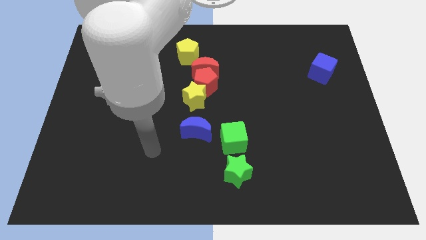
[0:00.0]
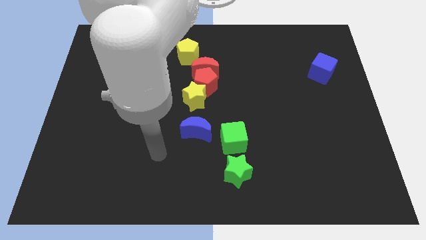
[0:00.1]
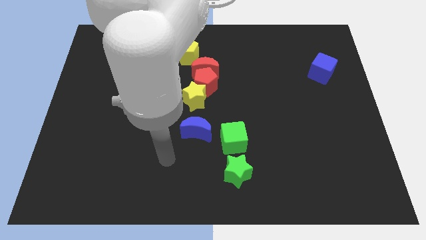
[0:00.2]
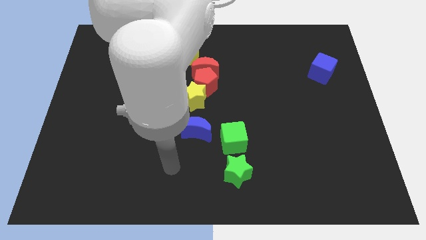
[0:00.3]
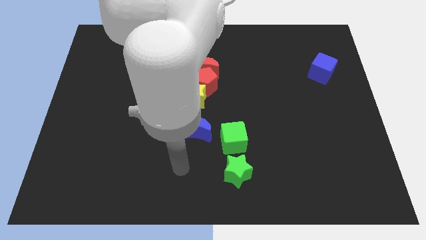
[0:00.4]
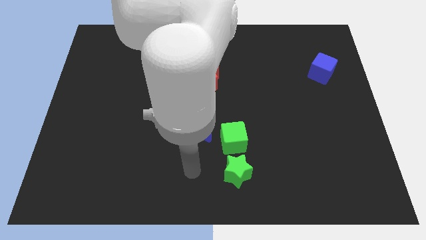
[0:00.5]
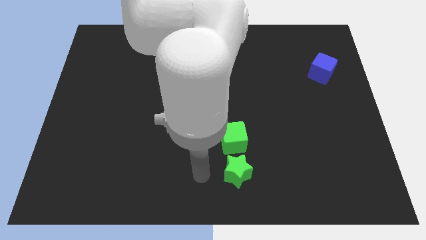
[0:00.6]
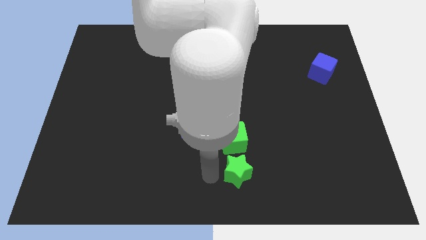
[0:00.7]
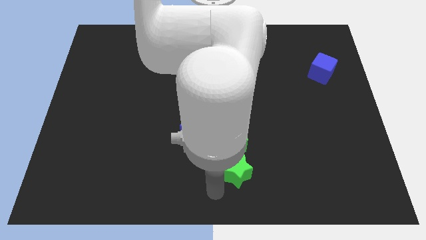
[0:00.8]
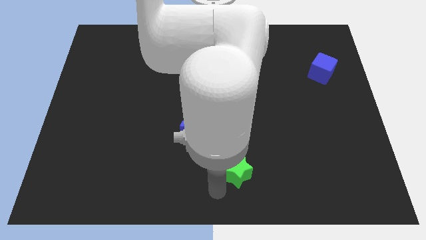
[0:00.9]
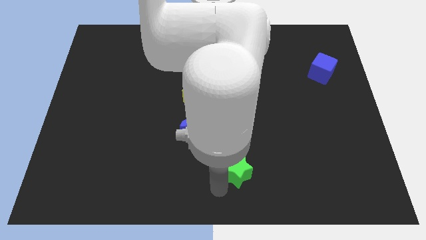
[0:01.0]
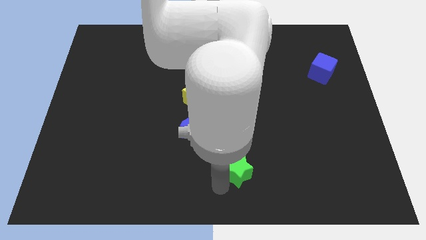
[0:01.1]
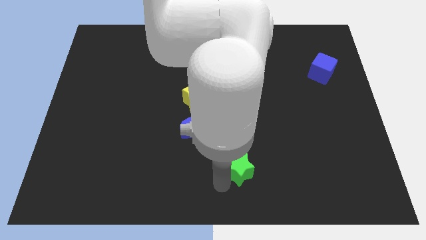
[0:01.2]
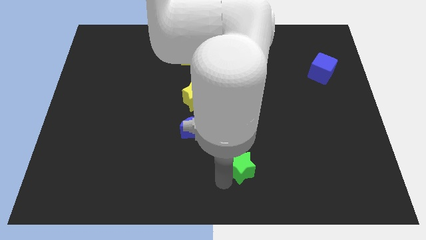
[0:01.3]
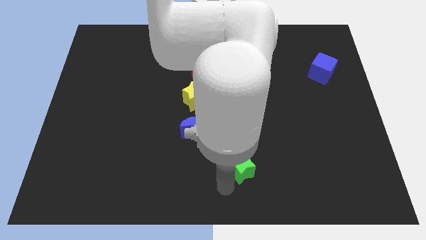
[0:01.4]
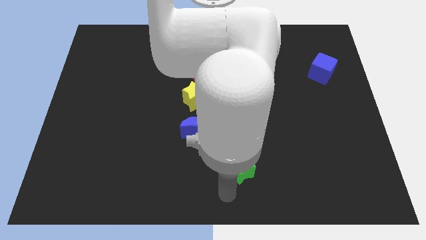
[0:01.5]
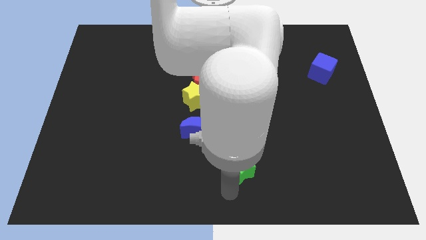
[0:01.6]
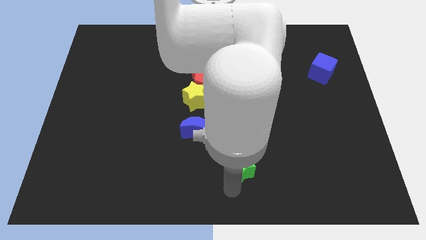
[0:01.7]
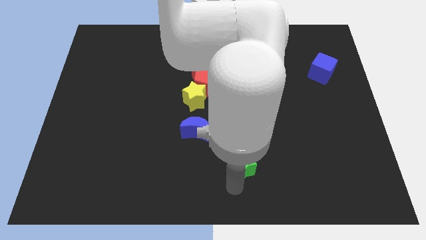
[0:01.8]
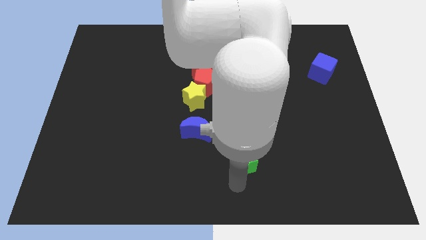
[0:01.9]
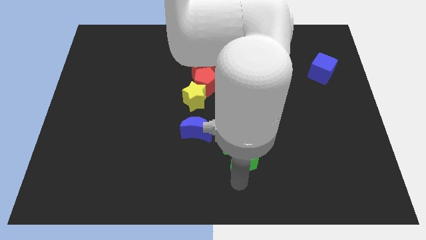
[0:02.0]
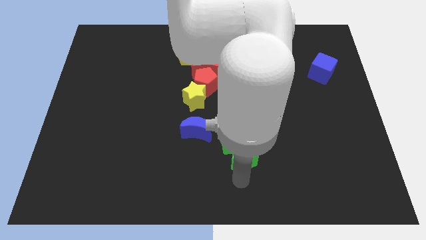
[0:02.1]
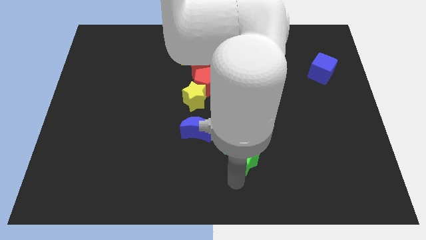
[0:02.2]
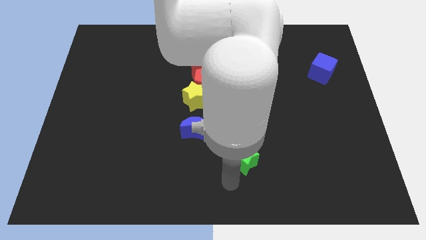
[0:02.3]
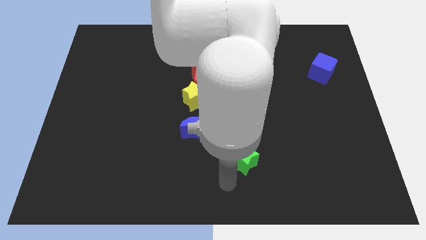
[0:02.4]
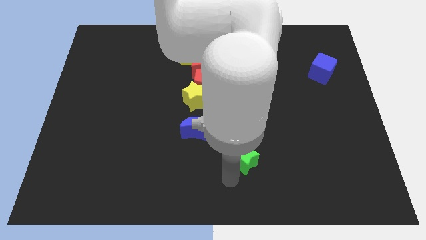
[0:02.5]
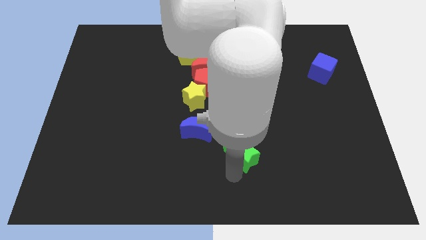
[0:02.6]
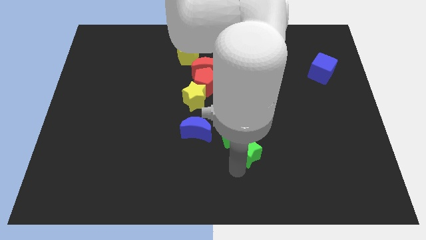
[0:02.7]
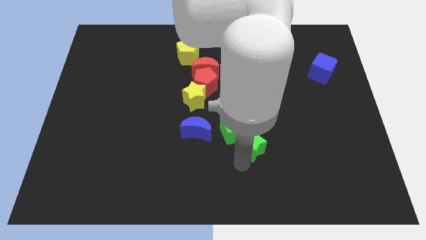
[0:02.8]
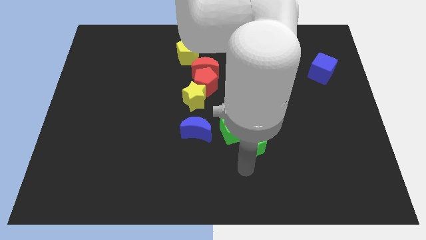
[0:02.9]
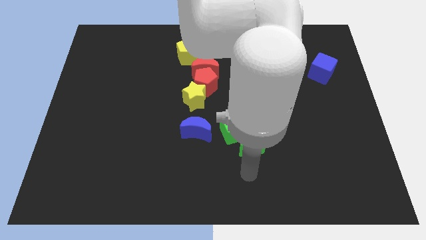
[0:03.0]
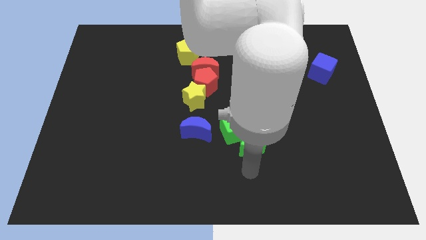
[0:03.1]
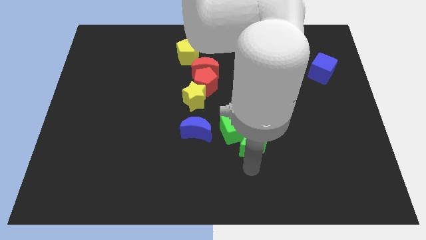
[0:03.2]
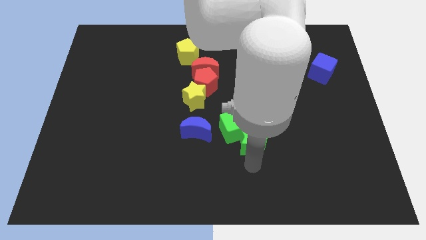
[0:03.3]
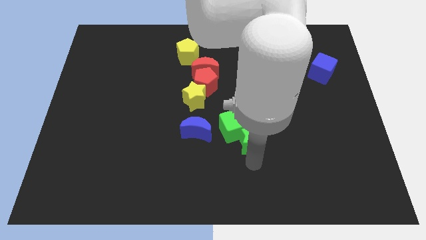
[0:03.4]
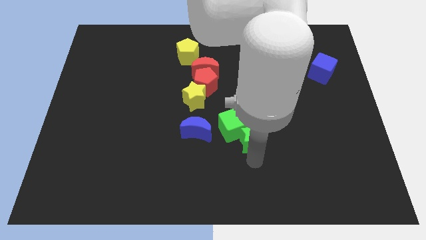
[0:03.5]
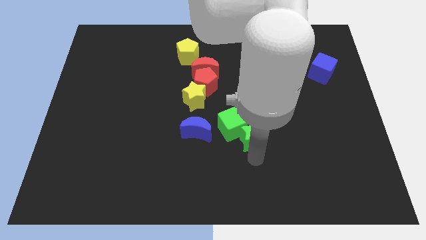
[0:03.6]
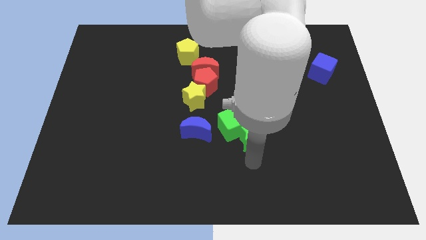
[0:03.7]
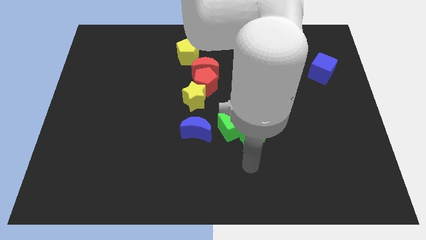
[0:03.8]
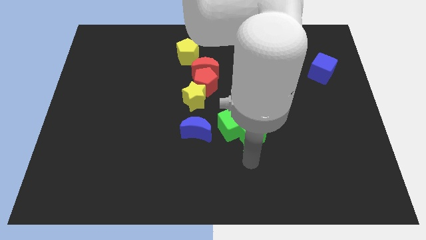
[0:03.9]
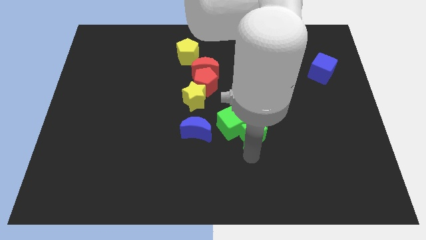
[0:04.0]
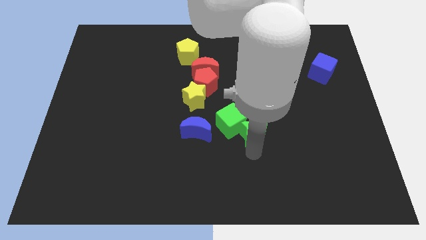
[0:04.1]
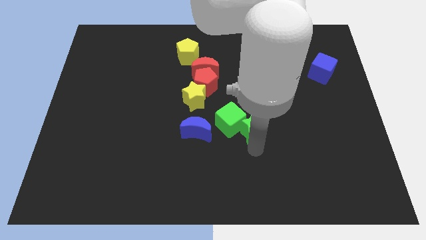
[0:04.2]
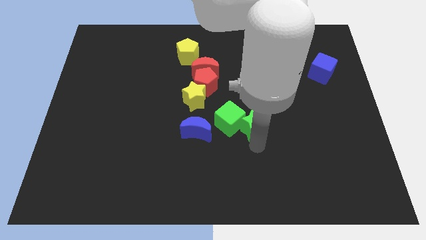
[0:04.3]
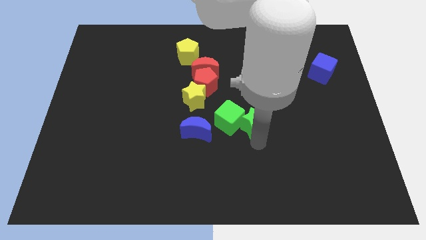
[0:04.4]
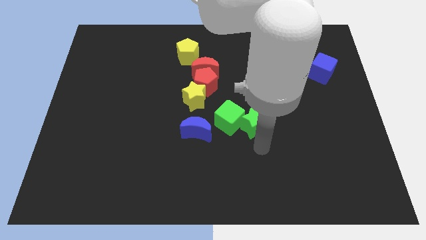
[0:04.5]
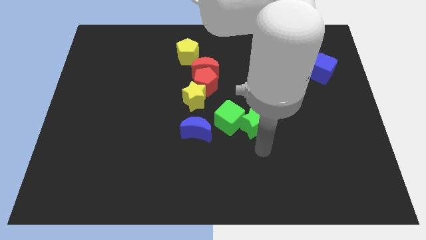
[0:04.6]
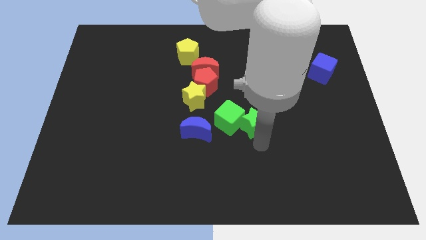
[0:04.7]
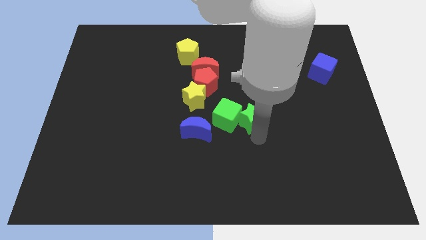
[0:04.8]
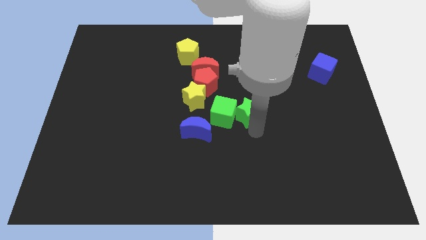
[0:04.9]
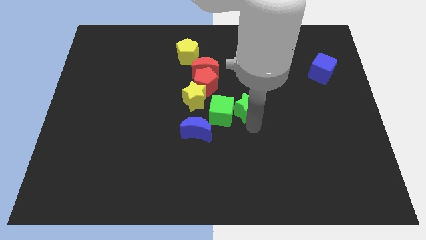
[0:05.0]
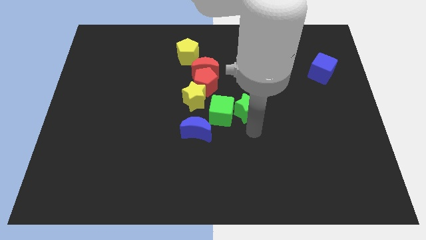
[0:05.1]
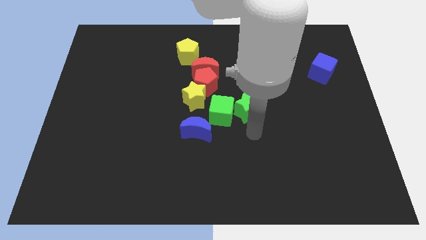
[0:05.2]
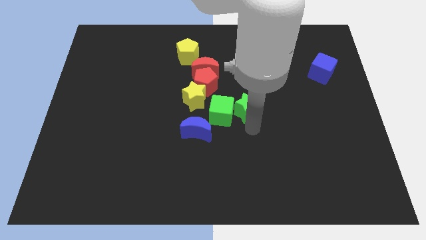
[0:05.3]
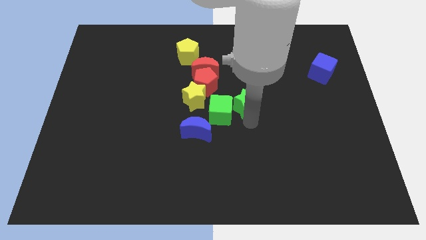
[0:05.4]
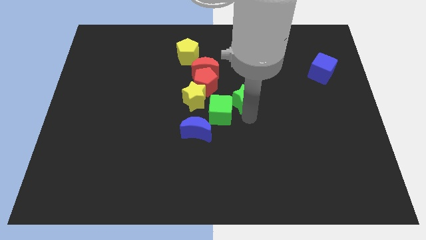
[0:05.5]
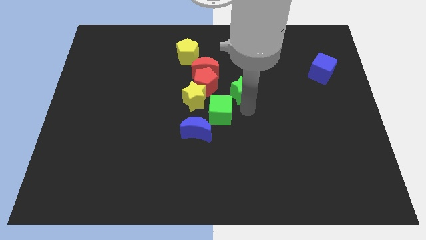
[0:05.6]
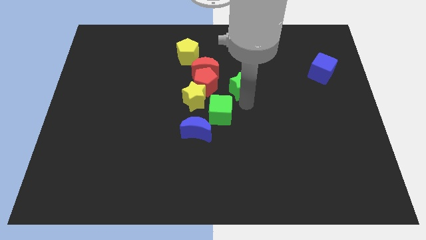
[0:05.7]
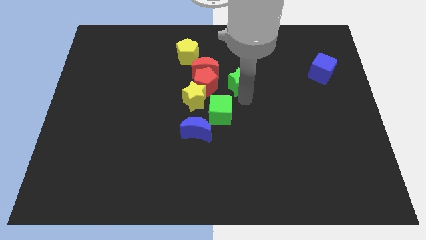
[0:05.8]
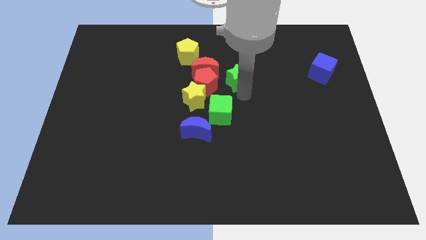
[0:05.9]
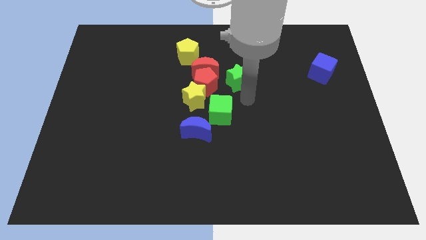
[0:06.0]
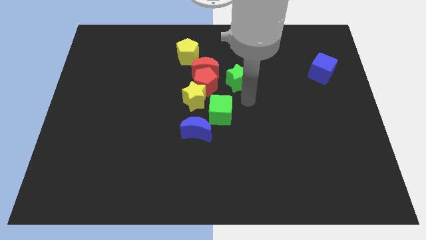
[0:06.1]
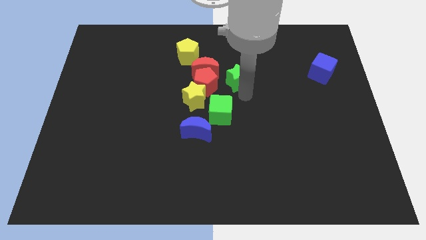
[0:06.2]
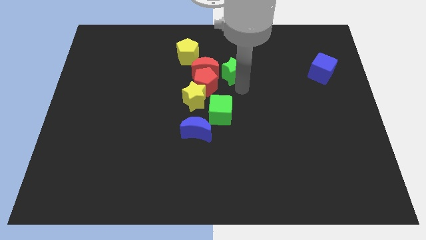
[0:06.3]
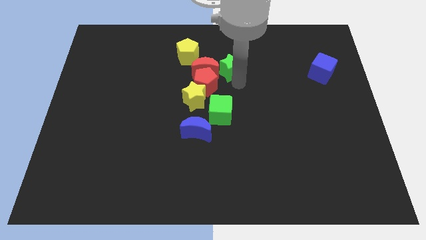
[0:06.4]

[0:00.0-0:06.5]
move the green star to the top right of the red moon

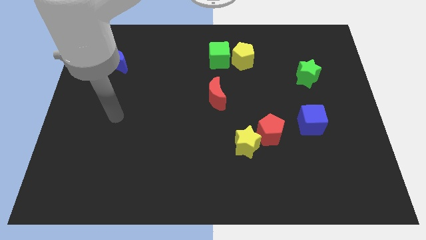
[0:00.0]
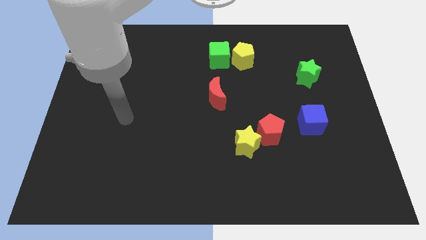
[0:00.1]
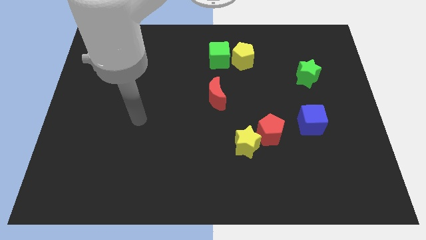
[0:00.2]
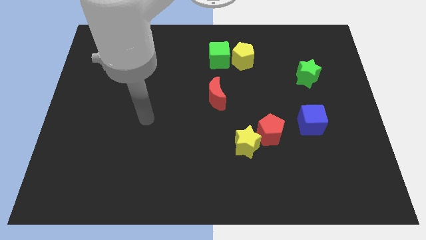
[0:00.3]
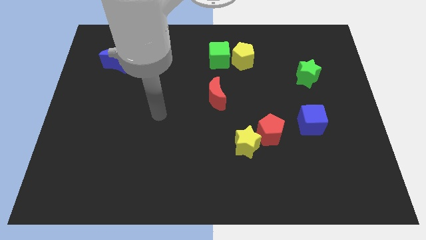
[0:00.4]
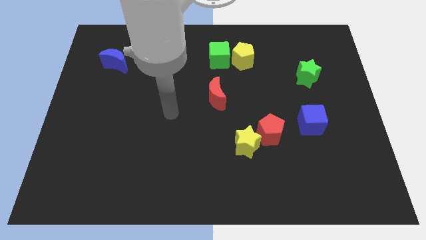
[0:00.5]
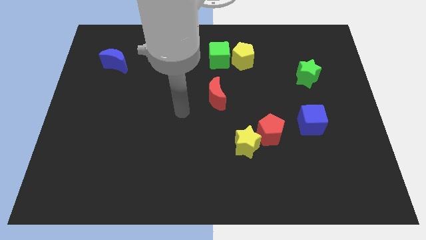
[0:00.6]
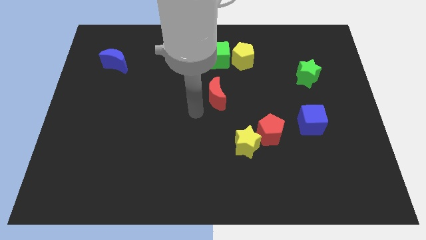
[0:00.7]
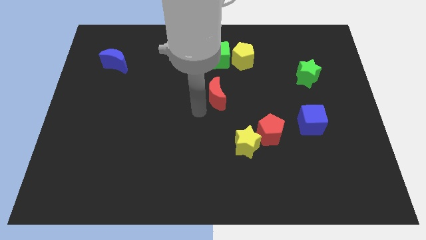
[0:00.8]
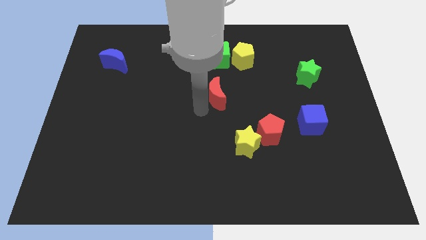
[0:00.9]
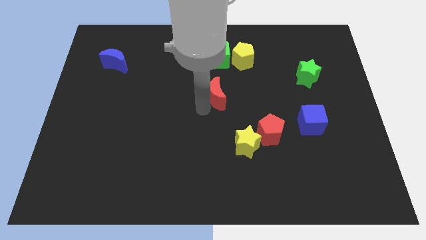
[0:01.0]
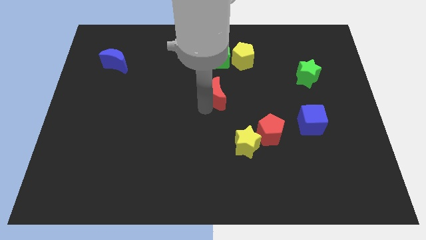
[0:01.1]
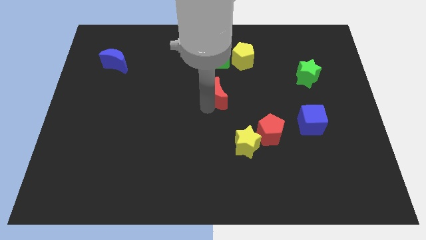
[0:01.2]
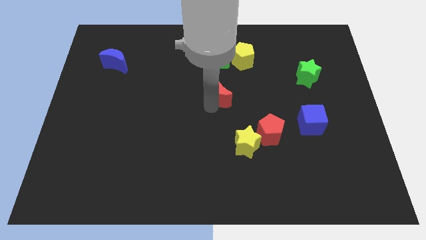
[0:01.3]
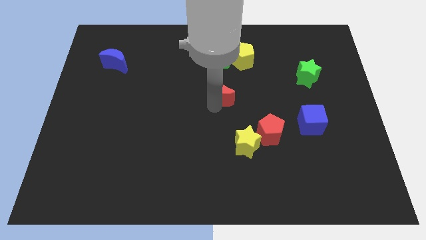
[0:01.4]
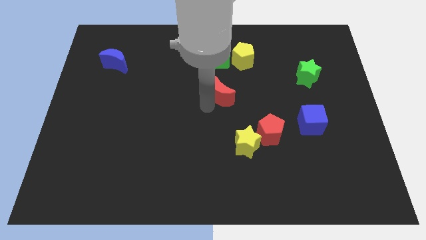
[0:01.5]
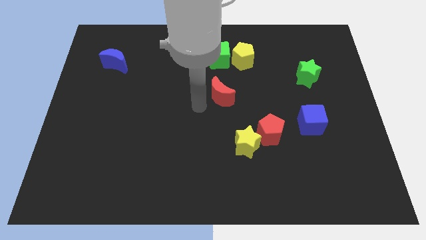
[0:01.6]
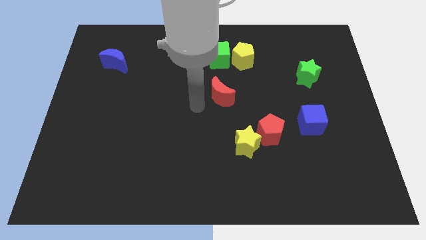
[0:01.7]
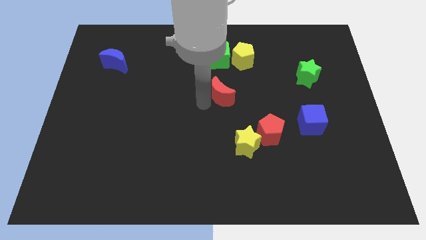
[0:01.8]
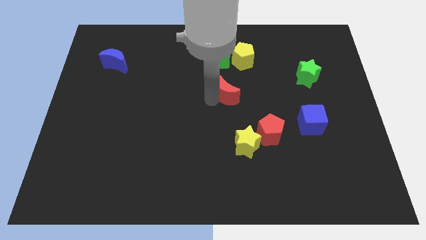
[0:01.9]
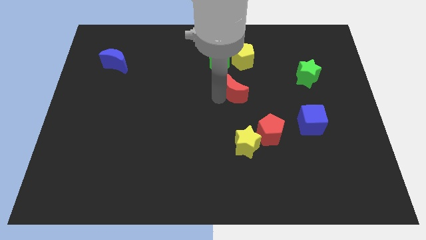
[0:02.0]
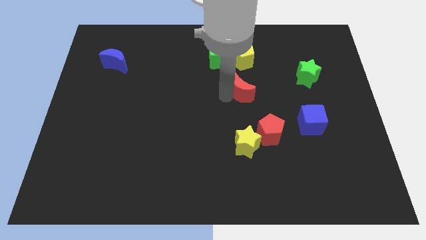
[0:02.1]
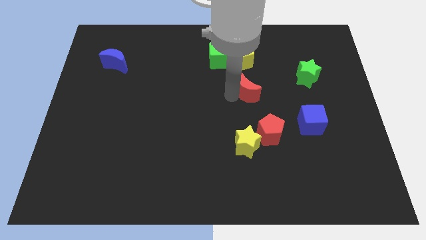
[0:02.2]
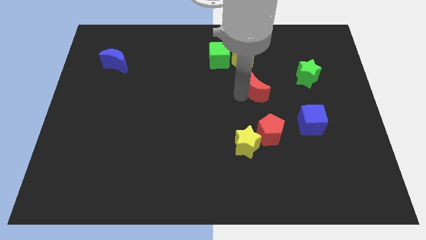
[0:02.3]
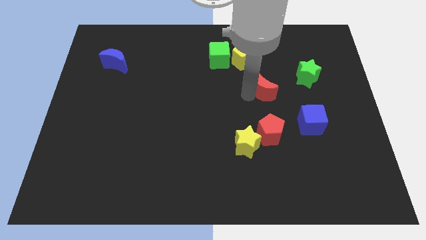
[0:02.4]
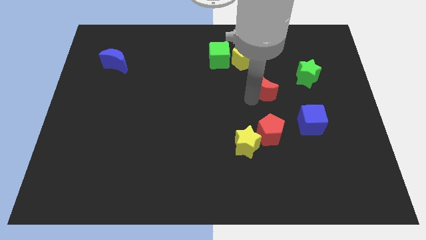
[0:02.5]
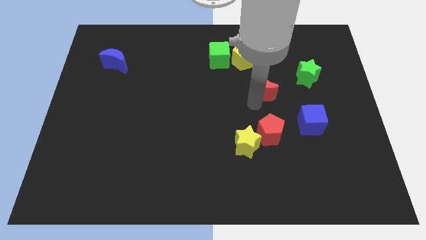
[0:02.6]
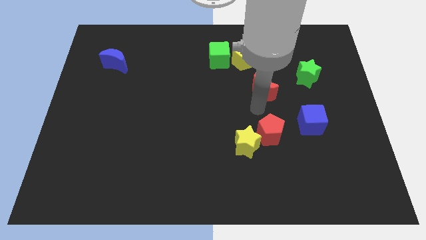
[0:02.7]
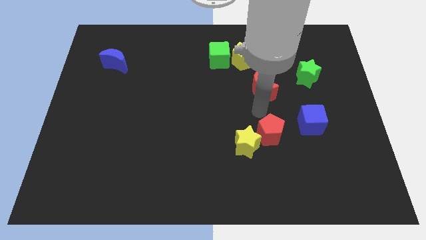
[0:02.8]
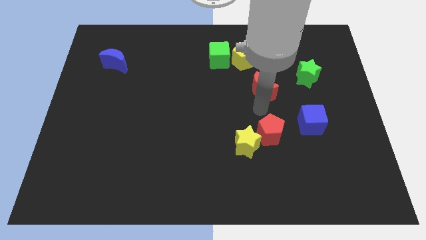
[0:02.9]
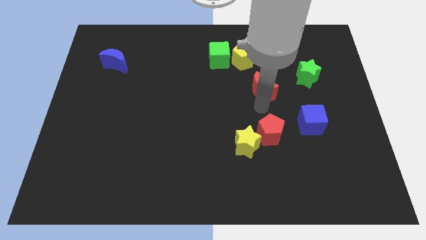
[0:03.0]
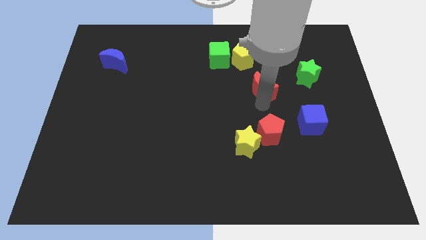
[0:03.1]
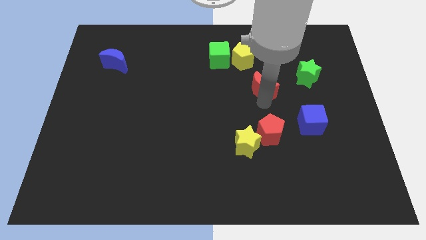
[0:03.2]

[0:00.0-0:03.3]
put the red moon diagonally down and to the right of the yellow pentagon
